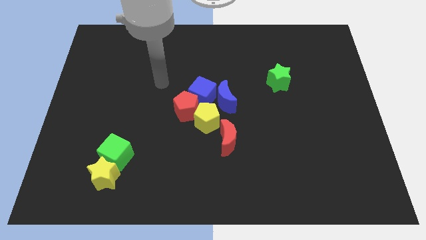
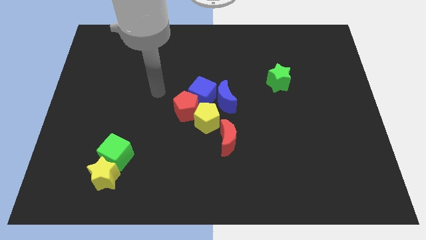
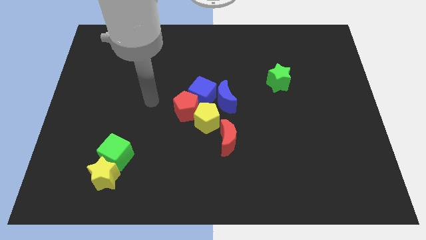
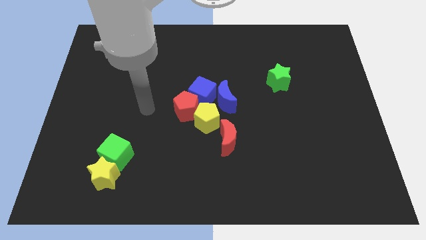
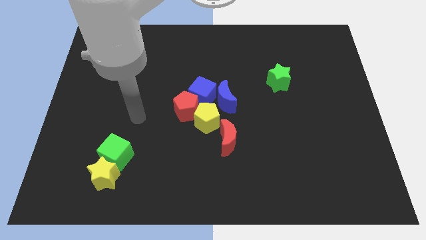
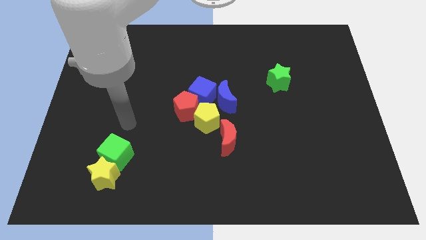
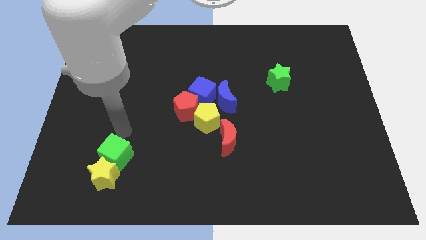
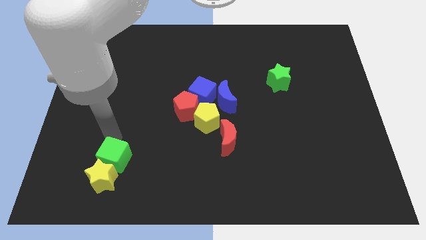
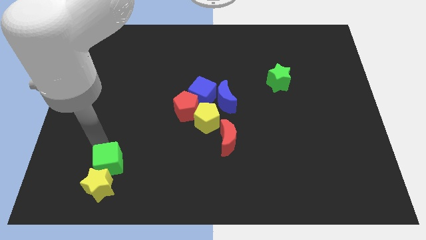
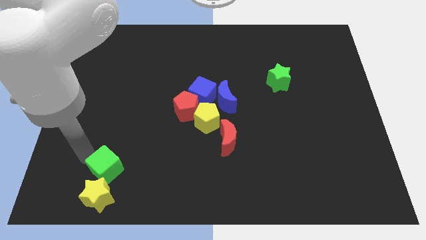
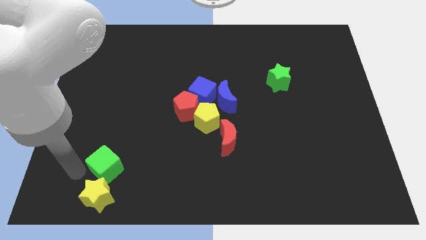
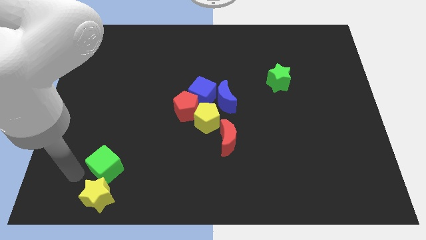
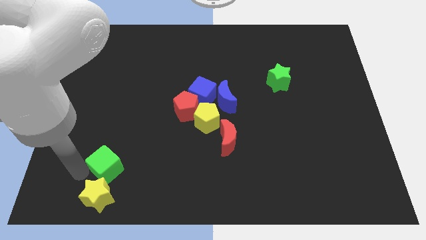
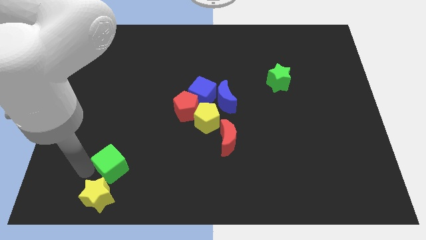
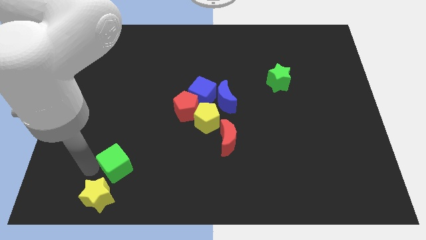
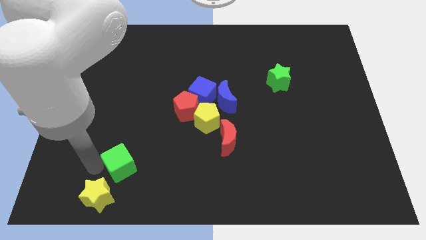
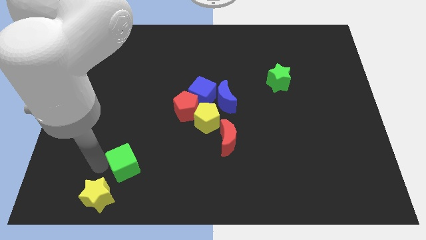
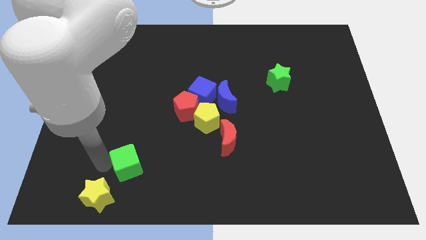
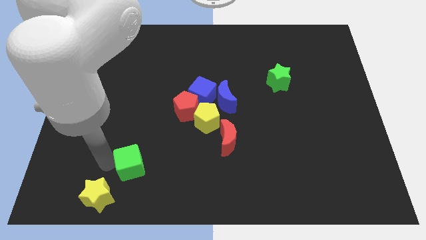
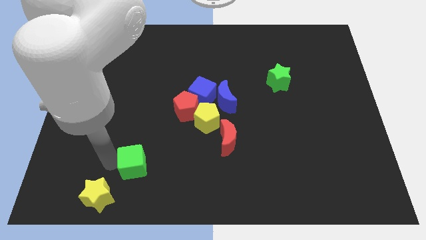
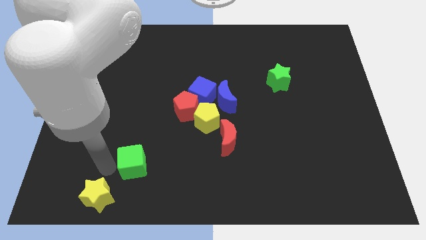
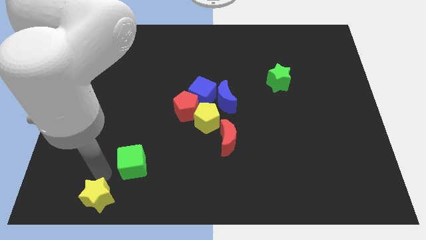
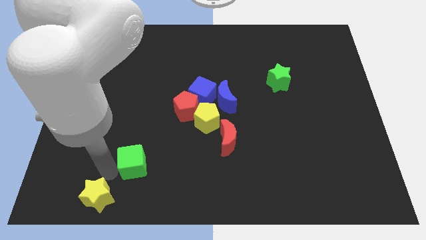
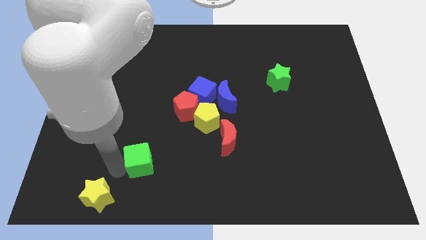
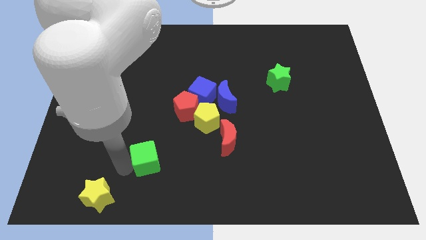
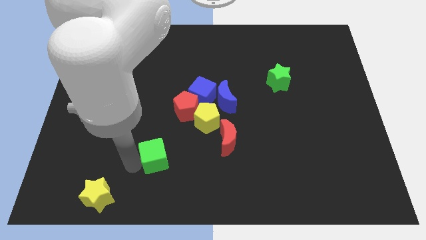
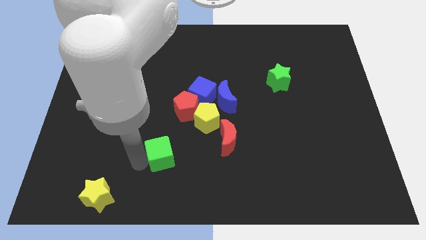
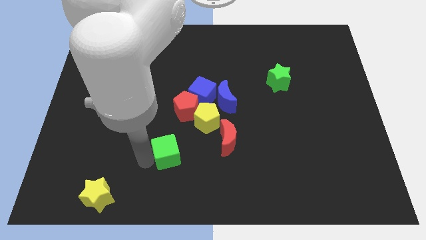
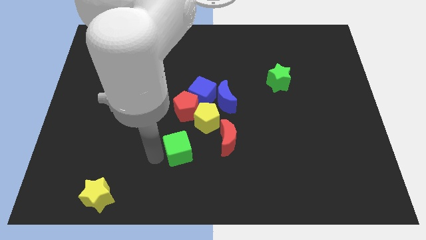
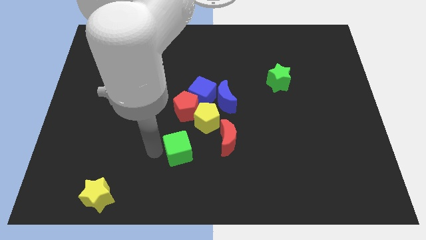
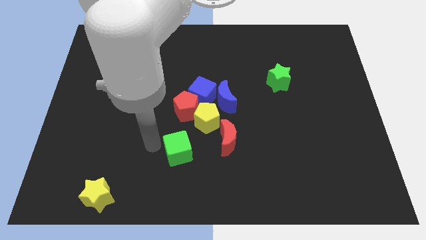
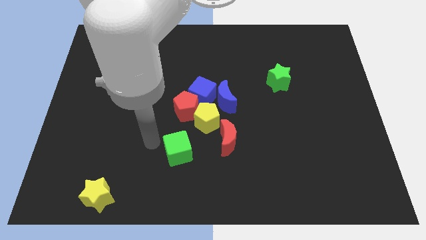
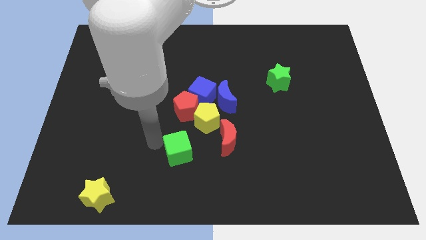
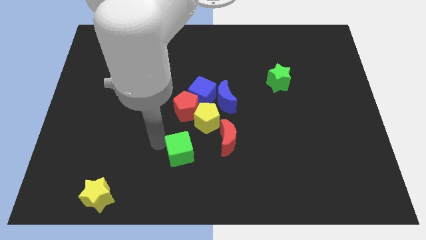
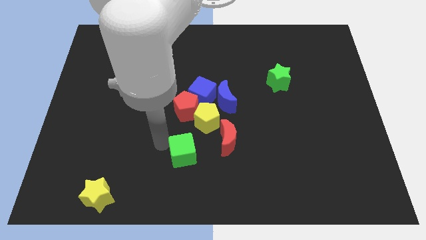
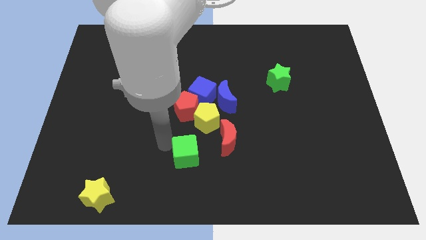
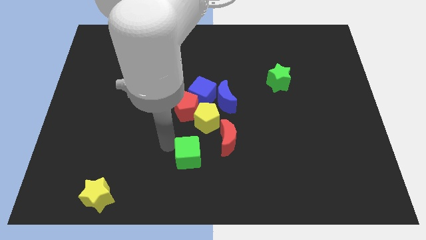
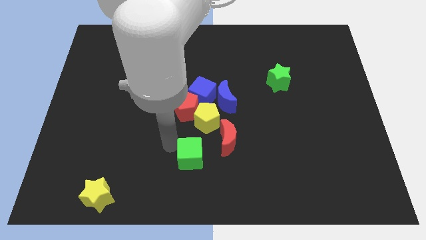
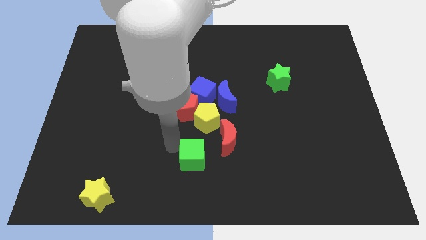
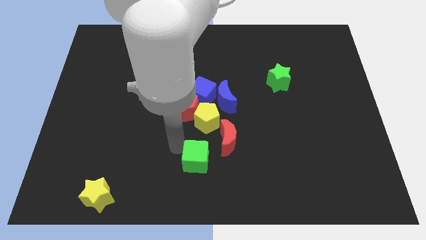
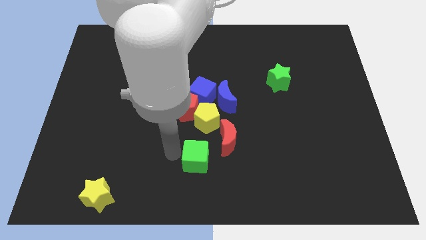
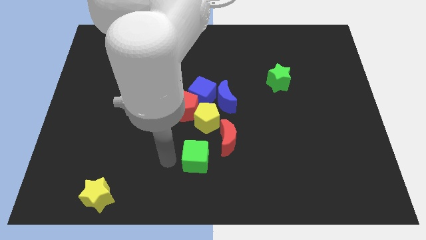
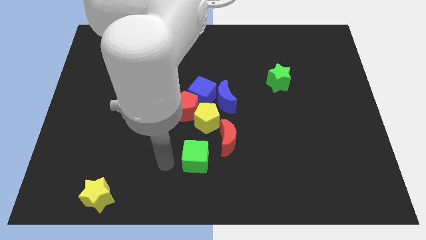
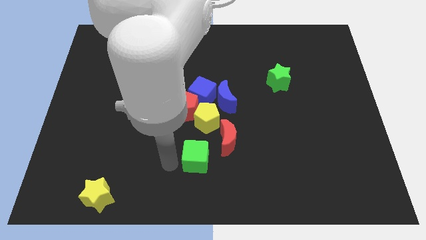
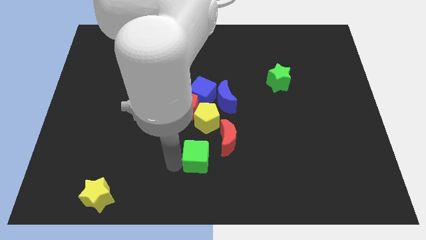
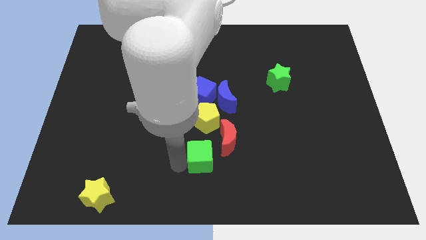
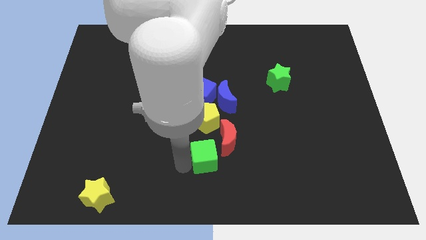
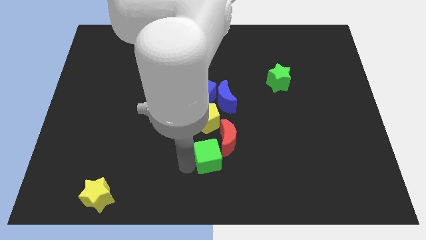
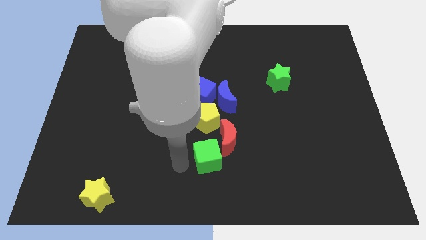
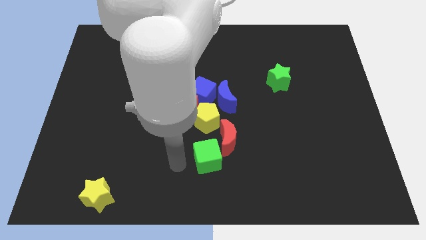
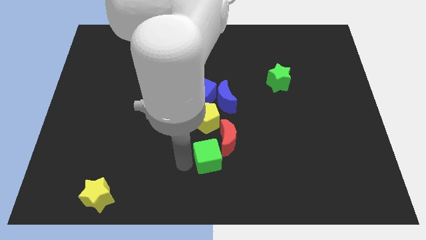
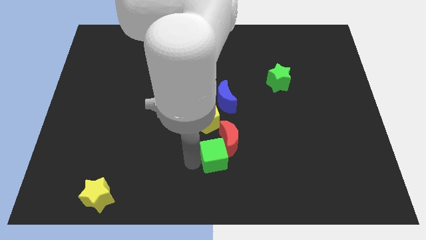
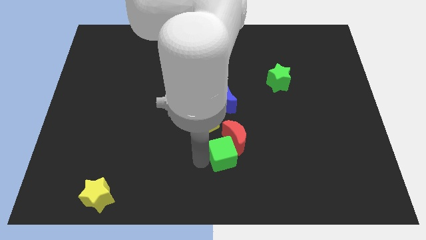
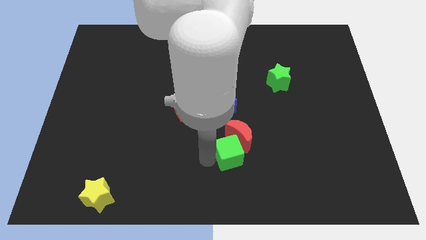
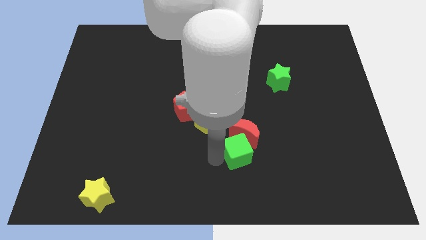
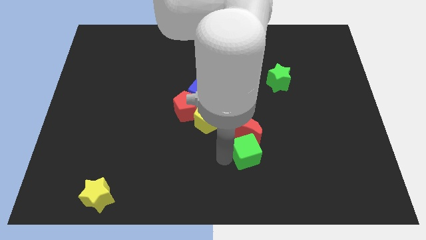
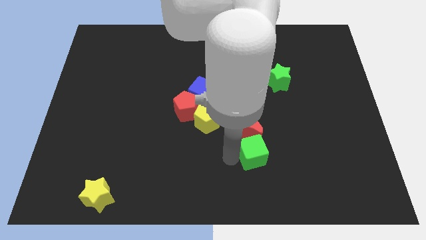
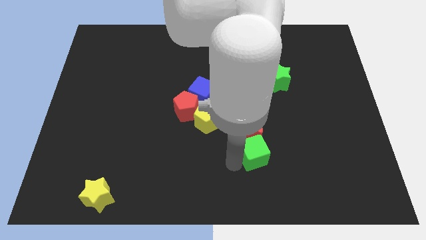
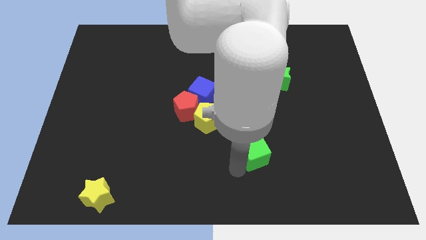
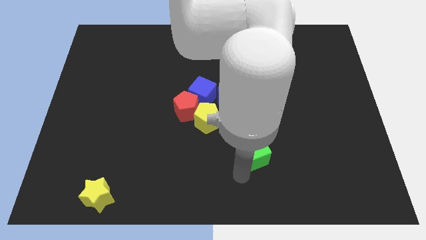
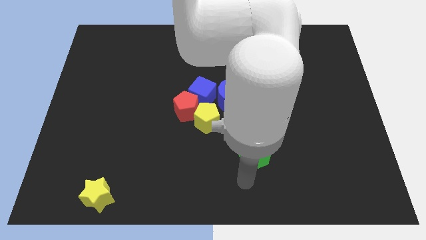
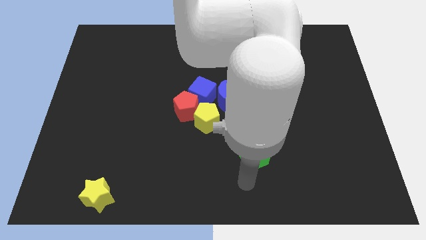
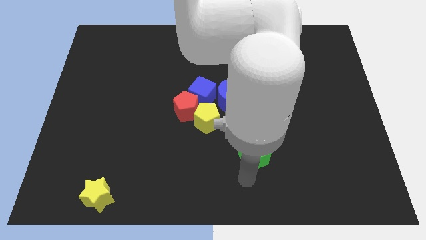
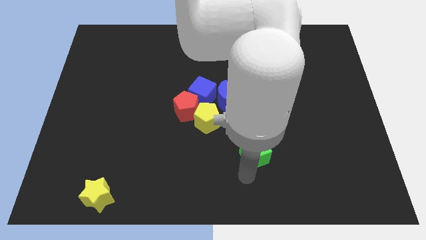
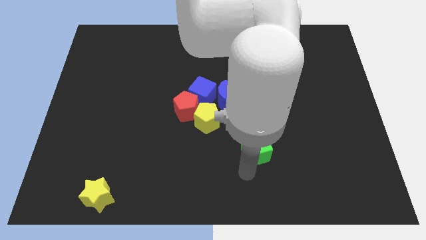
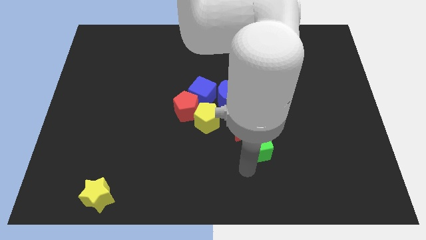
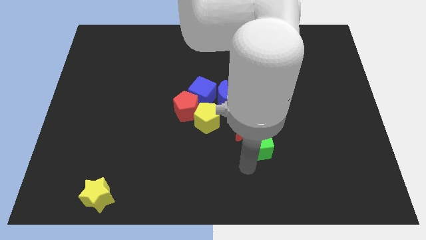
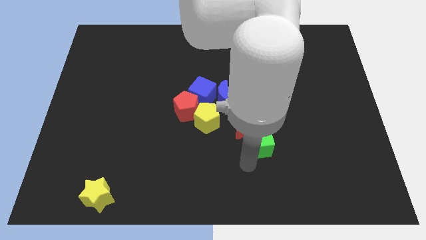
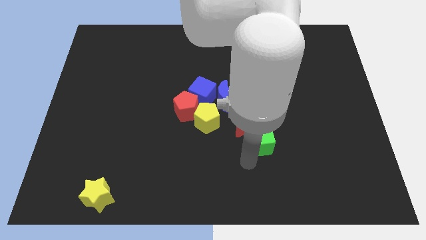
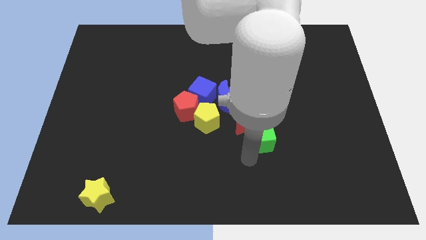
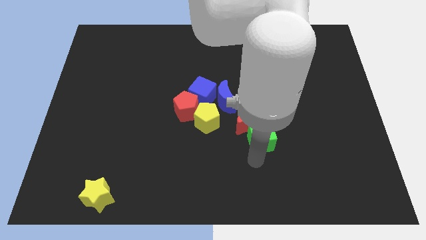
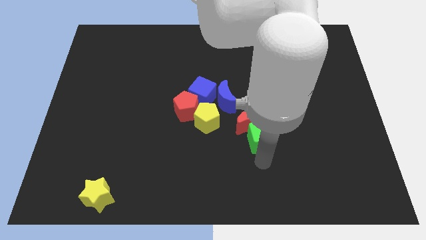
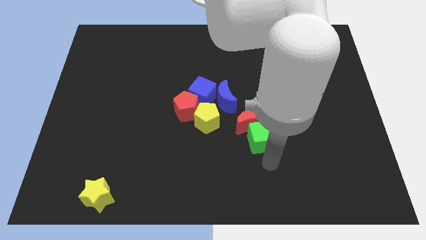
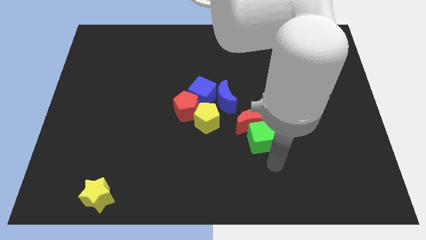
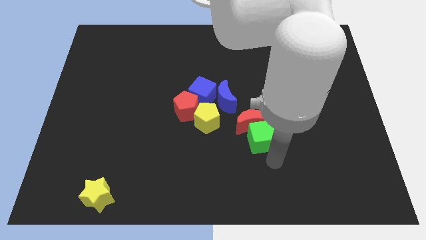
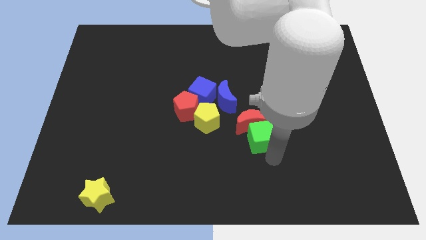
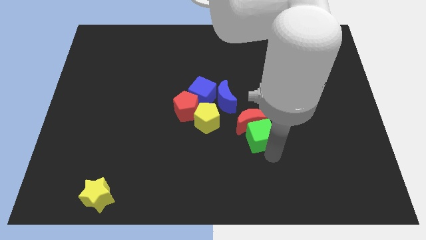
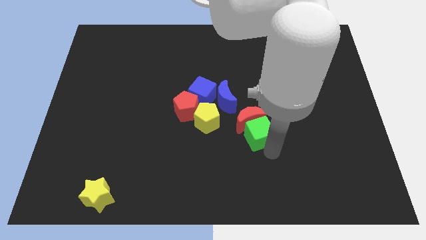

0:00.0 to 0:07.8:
put the green cube to the bottom right side of the blue moon
